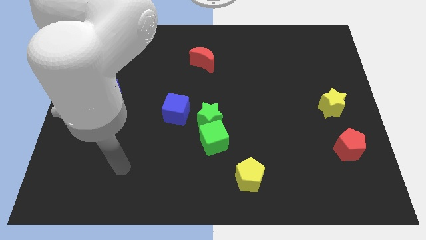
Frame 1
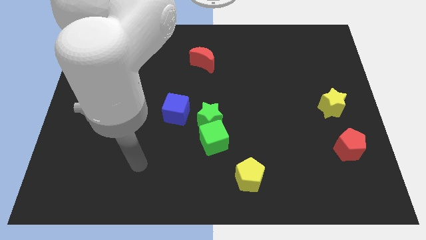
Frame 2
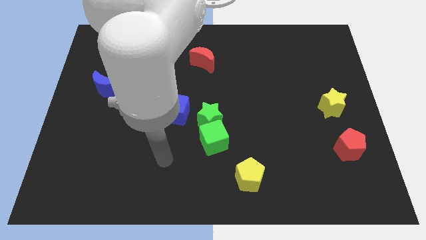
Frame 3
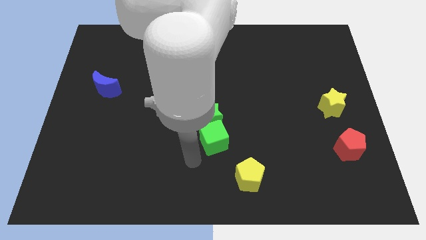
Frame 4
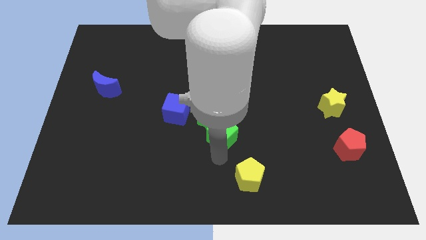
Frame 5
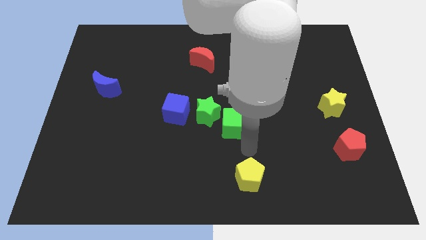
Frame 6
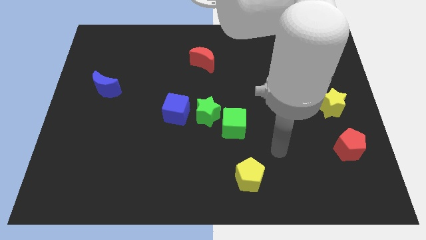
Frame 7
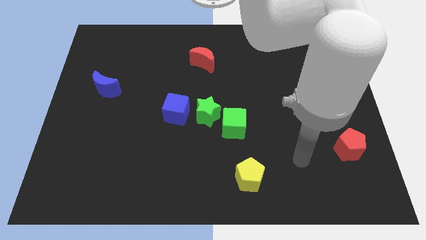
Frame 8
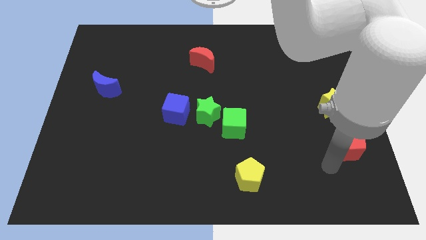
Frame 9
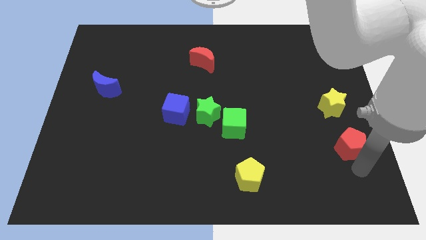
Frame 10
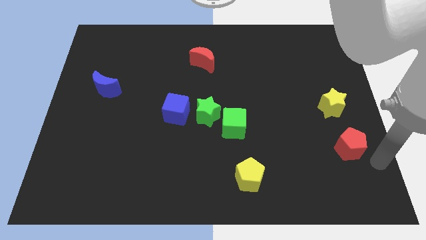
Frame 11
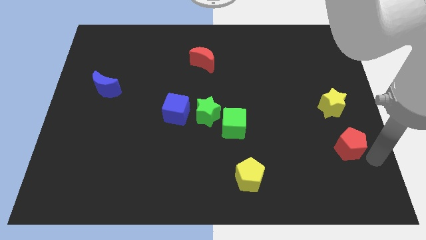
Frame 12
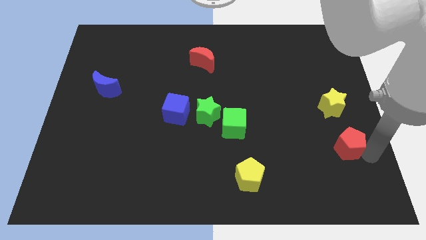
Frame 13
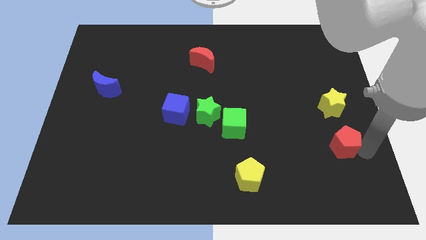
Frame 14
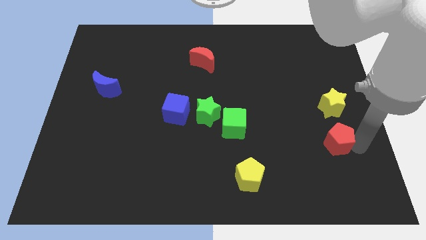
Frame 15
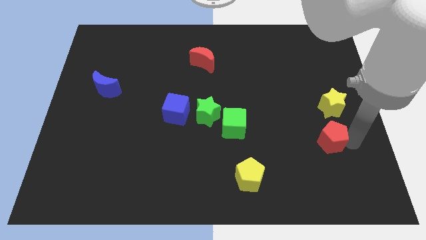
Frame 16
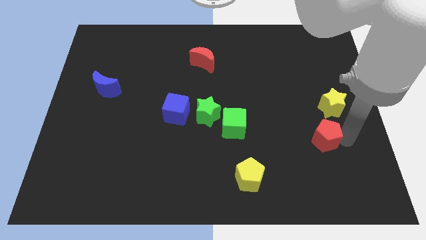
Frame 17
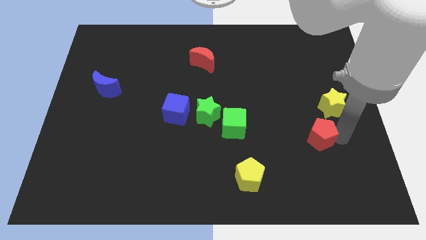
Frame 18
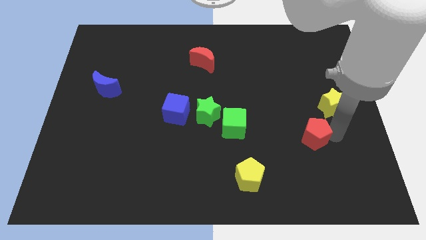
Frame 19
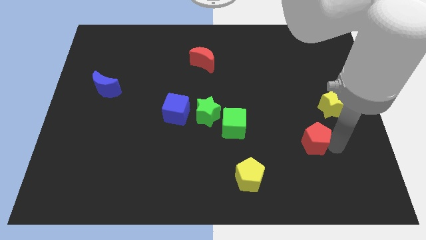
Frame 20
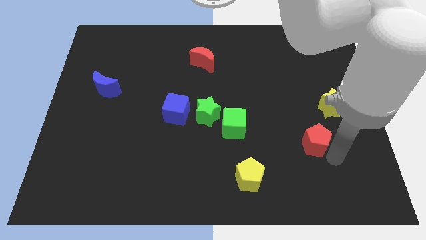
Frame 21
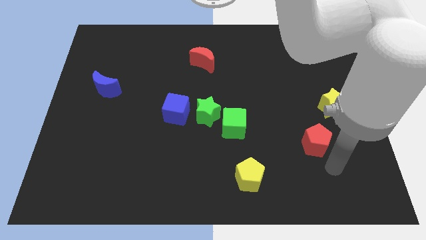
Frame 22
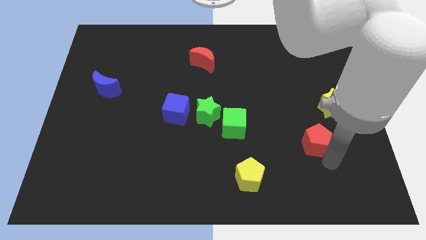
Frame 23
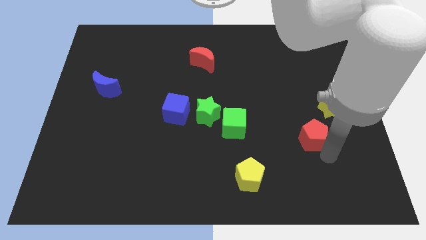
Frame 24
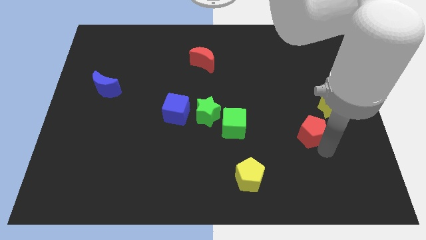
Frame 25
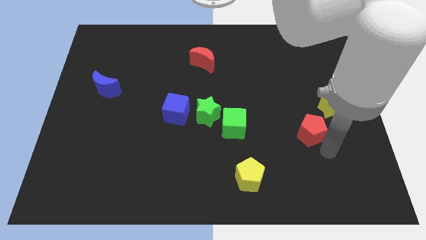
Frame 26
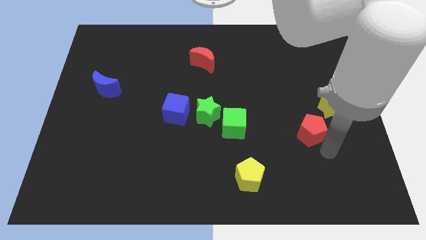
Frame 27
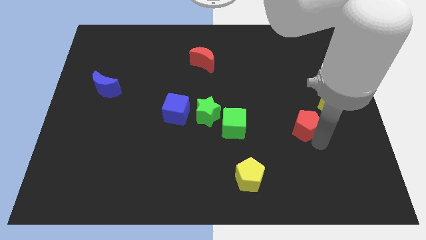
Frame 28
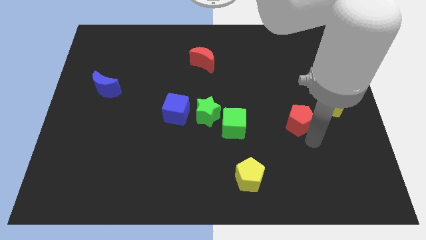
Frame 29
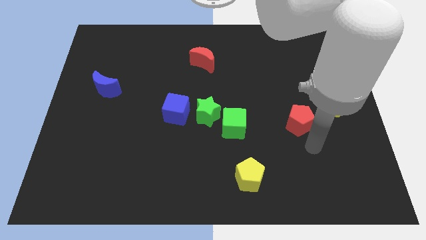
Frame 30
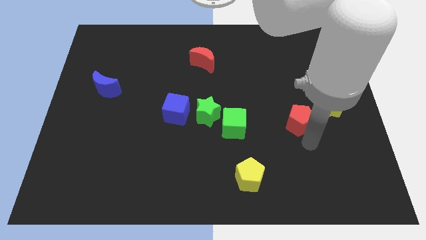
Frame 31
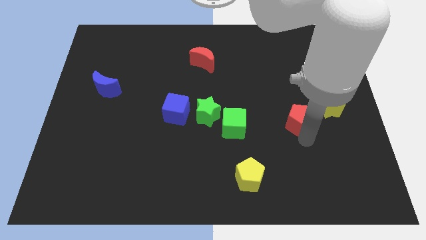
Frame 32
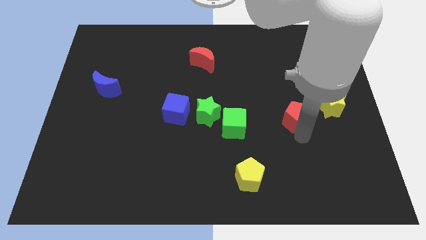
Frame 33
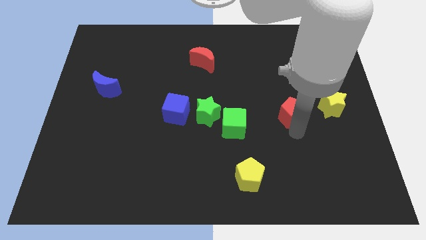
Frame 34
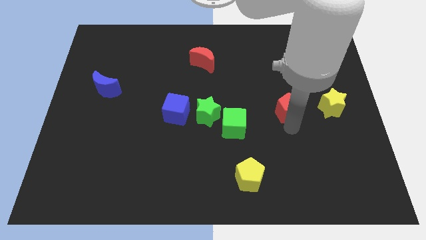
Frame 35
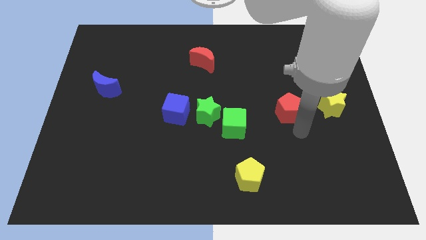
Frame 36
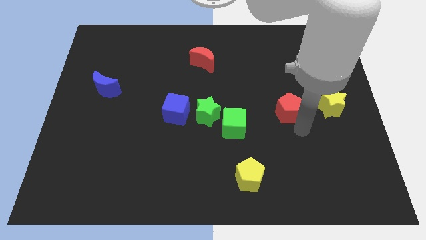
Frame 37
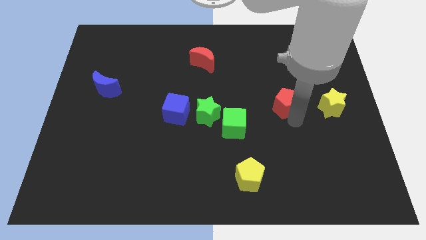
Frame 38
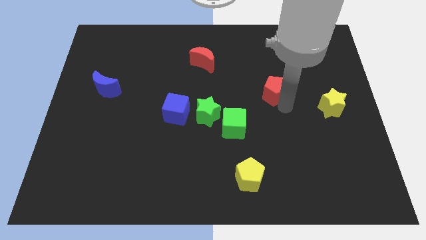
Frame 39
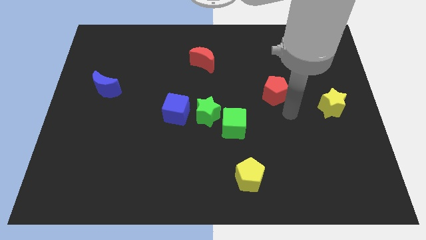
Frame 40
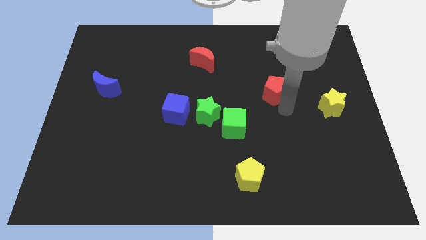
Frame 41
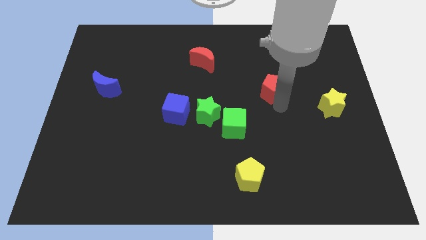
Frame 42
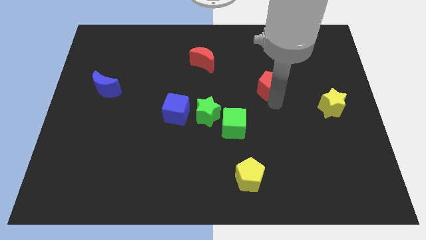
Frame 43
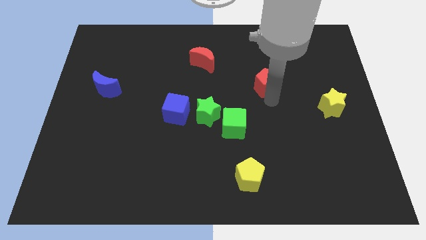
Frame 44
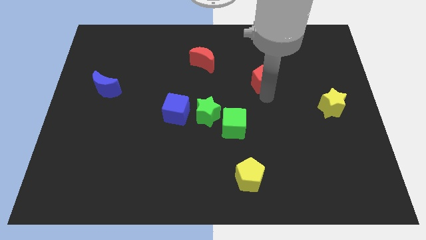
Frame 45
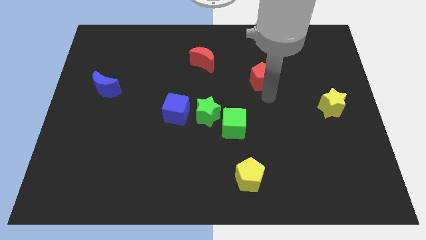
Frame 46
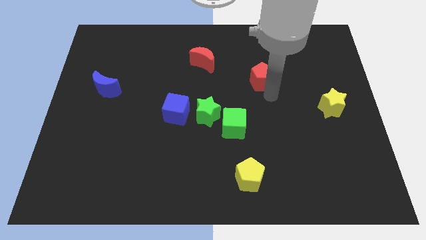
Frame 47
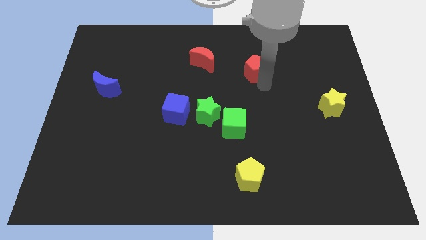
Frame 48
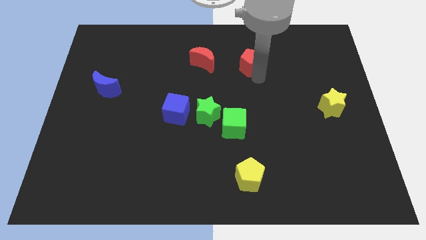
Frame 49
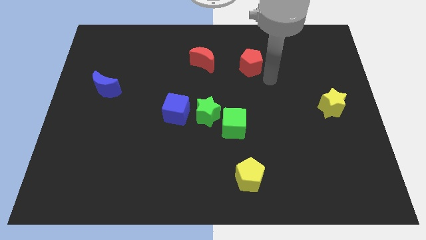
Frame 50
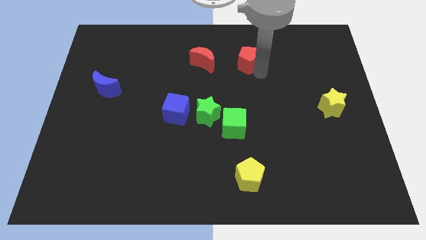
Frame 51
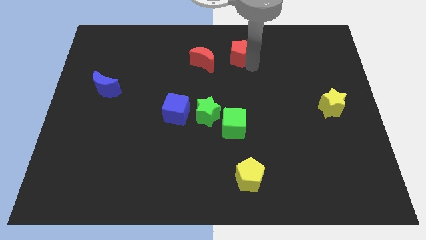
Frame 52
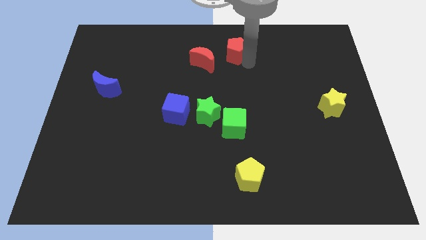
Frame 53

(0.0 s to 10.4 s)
push the red pentagon to the top side

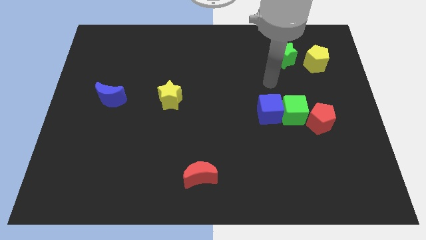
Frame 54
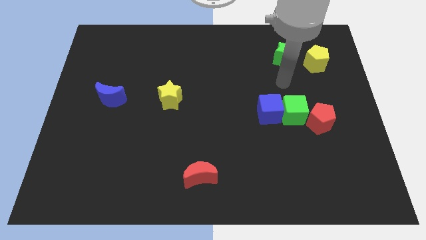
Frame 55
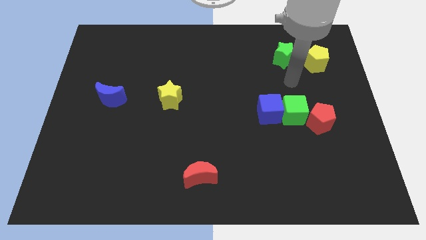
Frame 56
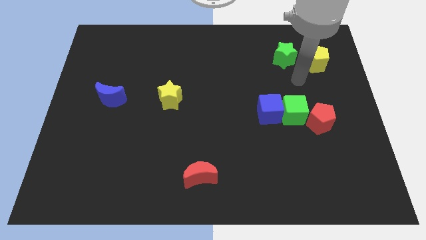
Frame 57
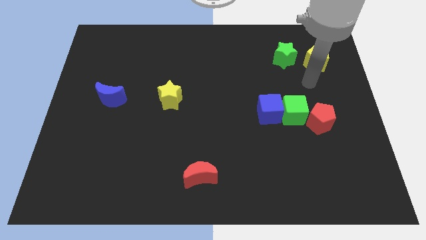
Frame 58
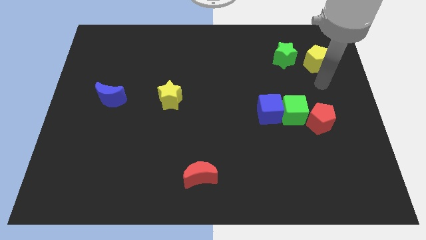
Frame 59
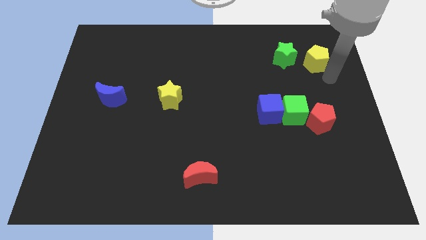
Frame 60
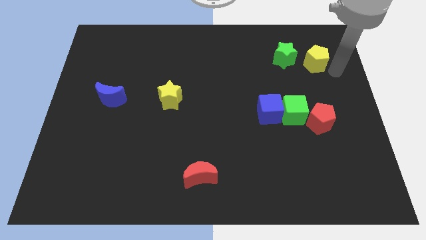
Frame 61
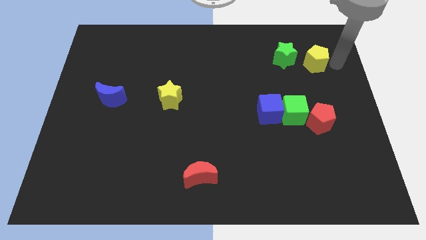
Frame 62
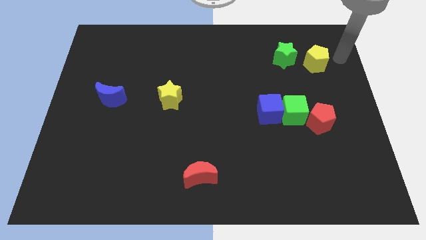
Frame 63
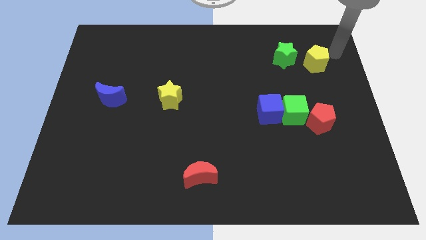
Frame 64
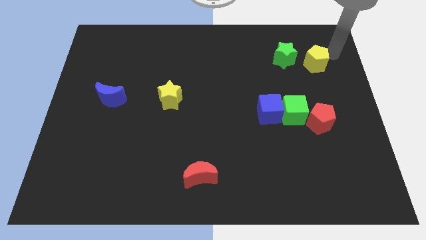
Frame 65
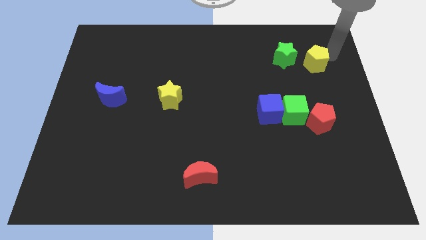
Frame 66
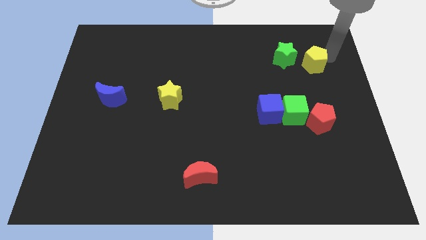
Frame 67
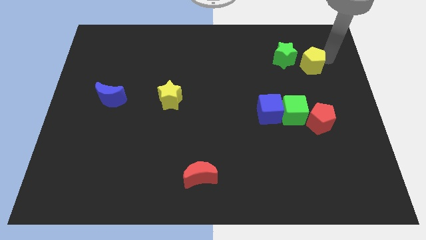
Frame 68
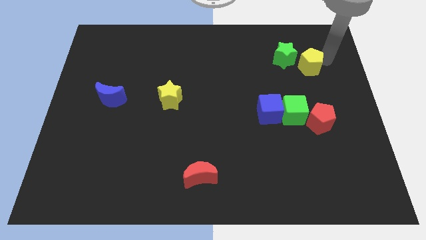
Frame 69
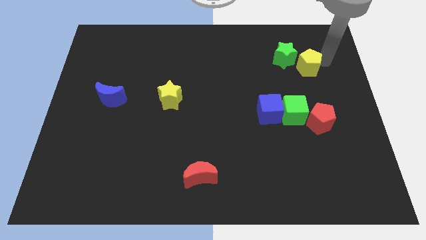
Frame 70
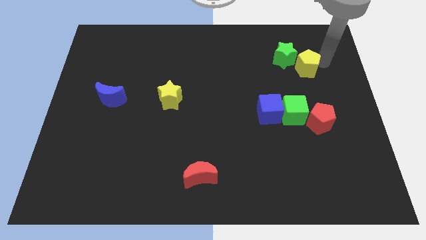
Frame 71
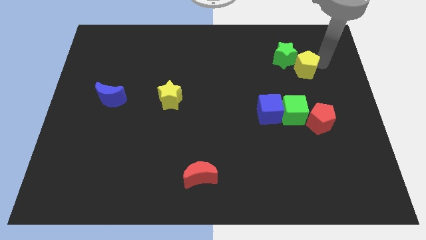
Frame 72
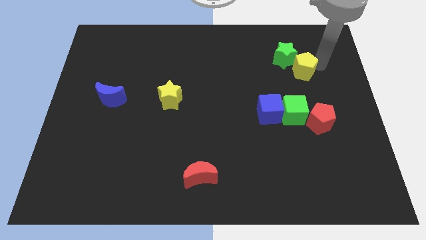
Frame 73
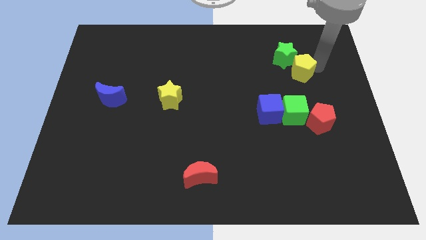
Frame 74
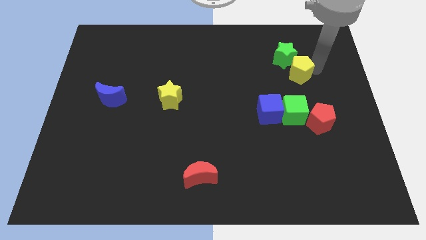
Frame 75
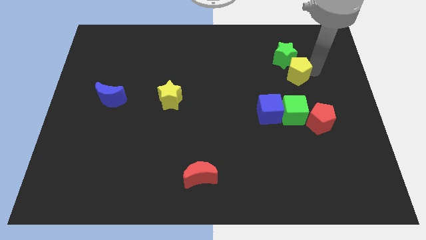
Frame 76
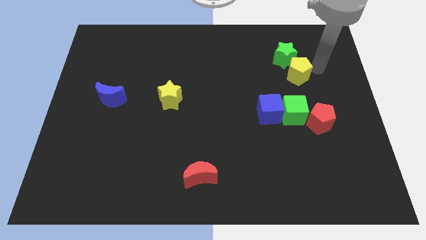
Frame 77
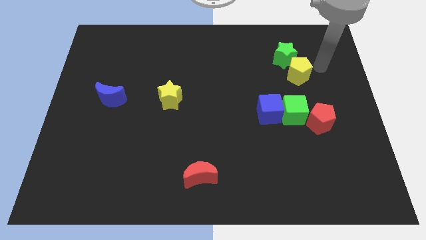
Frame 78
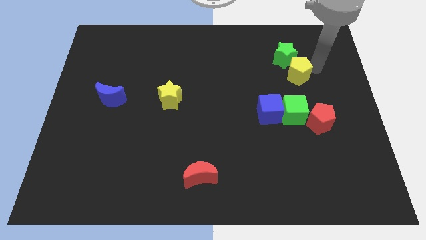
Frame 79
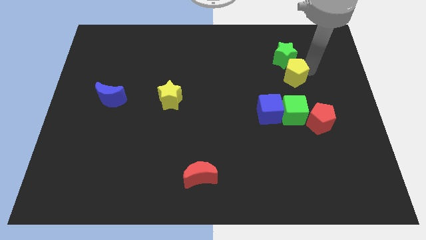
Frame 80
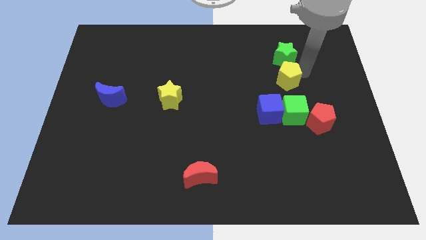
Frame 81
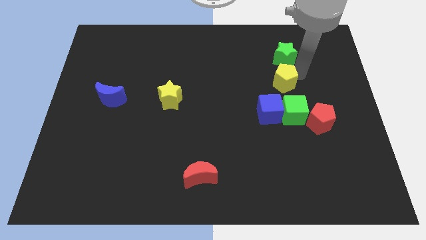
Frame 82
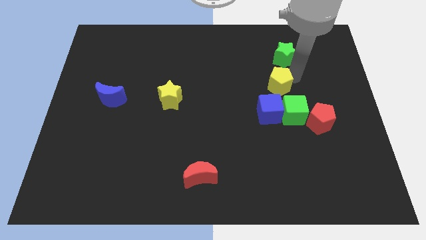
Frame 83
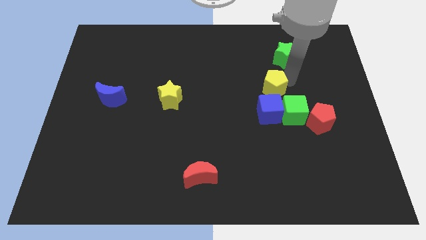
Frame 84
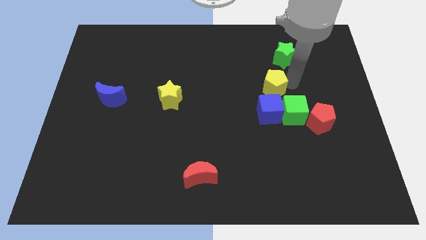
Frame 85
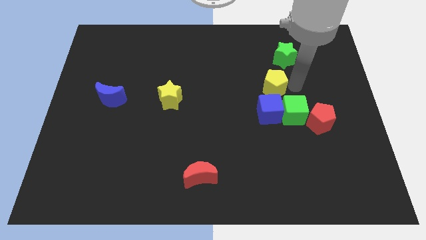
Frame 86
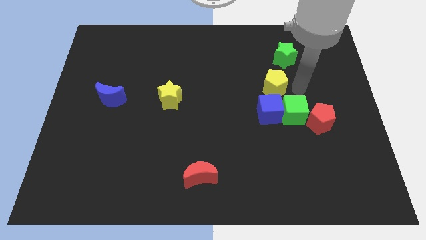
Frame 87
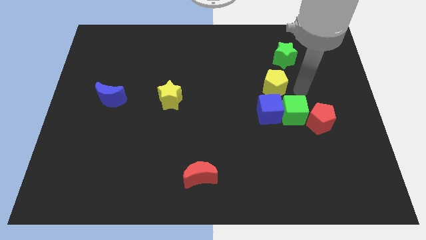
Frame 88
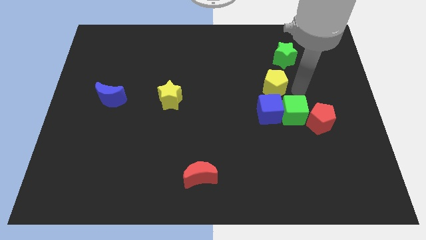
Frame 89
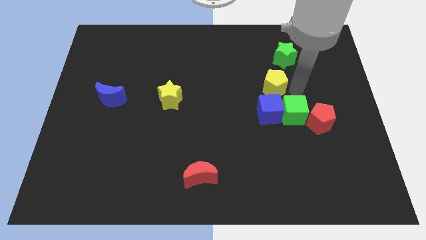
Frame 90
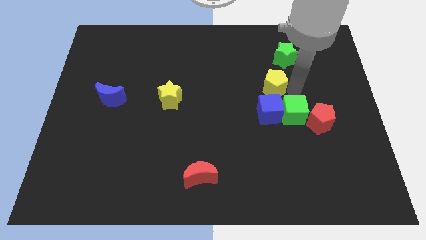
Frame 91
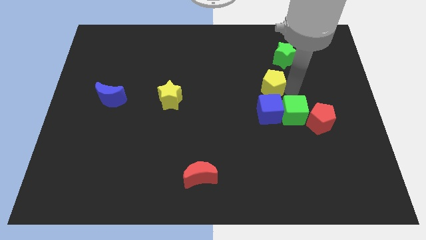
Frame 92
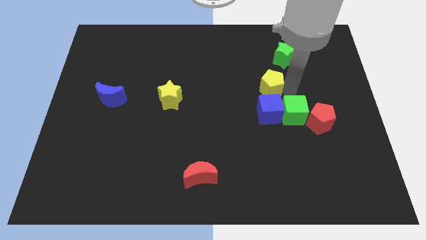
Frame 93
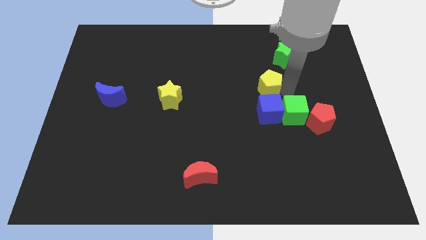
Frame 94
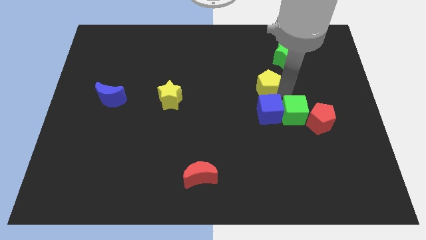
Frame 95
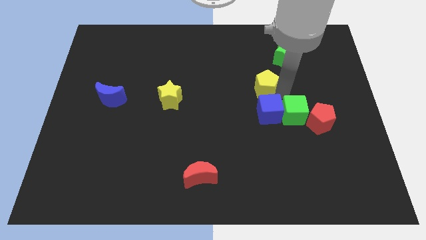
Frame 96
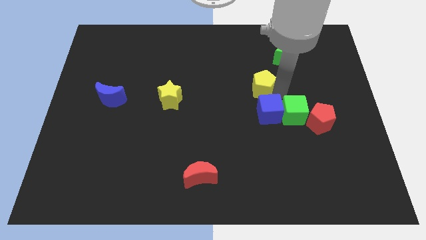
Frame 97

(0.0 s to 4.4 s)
push the yellow pentagon to the middle
